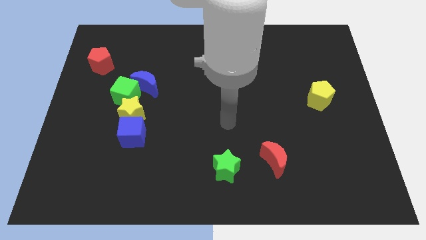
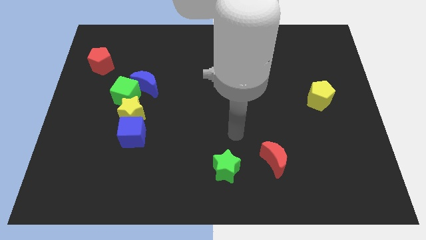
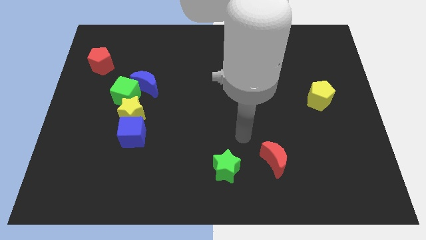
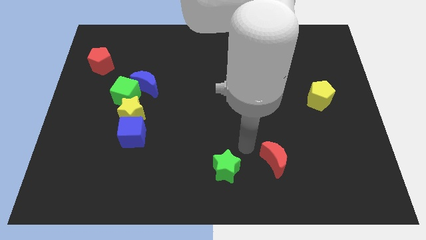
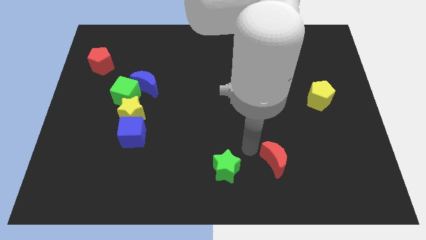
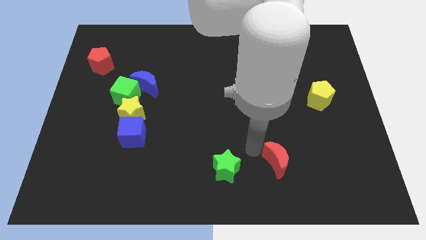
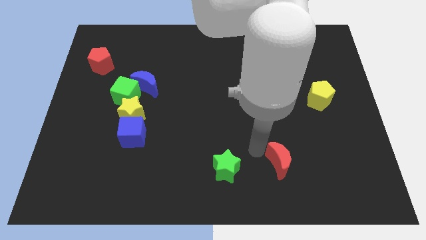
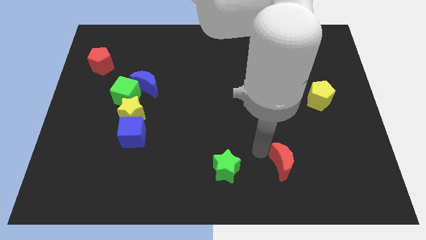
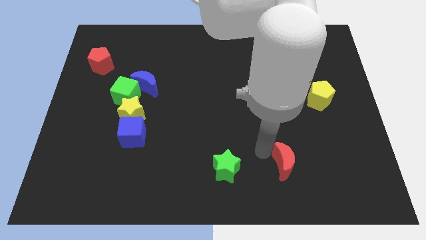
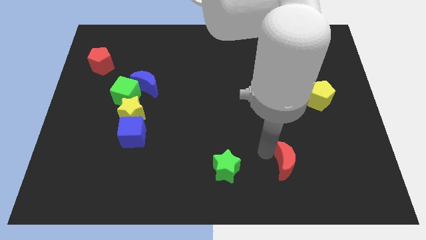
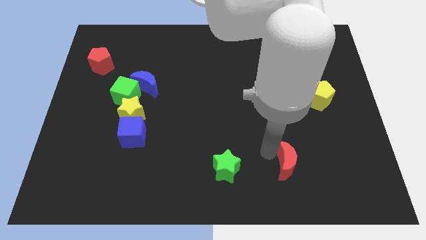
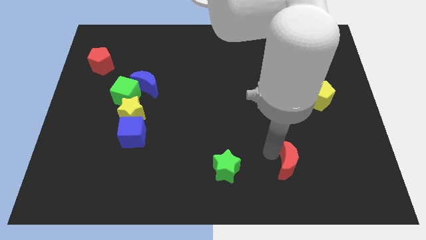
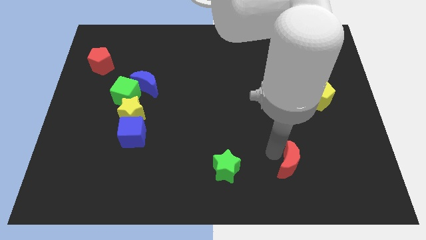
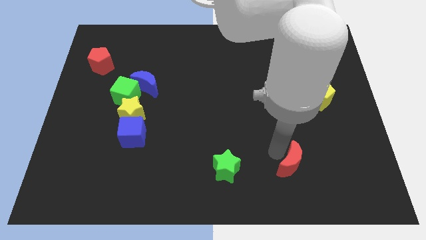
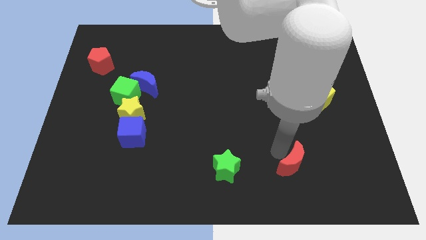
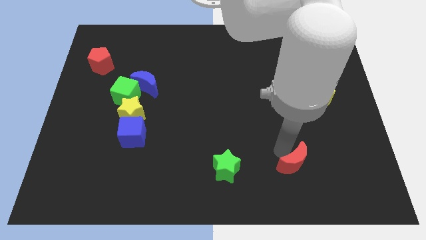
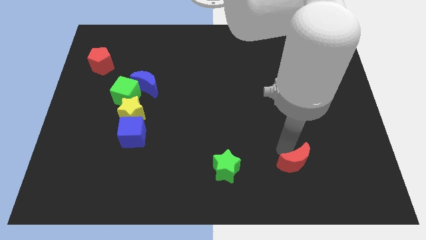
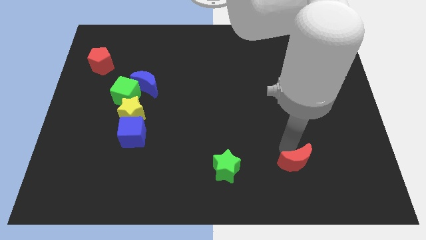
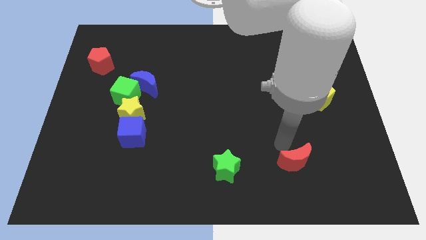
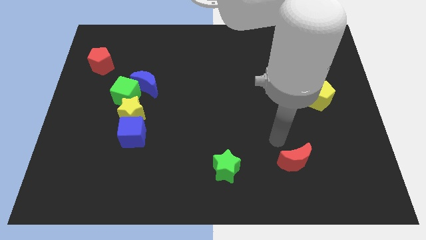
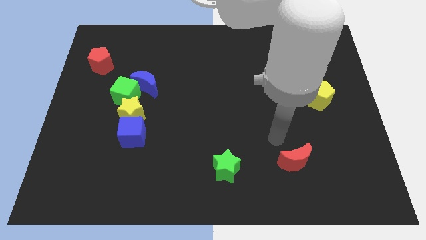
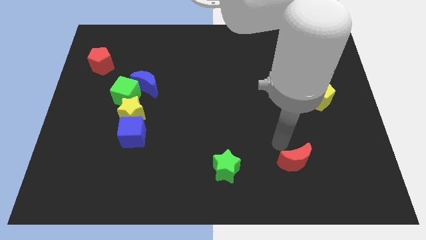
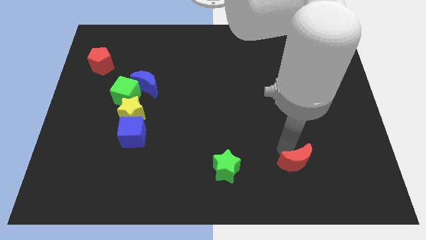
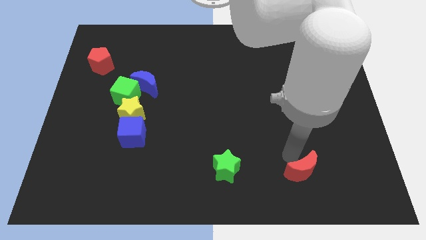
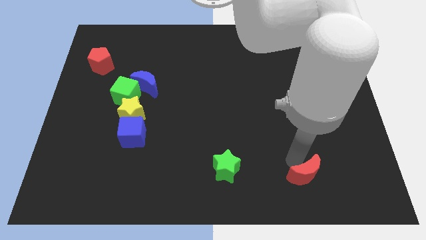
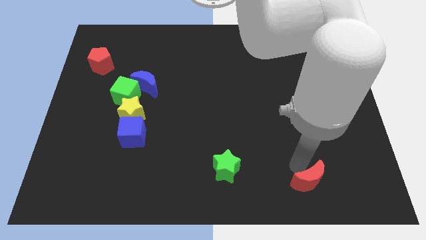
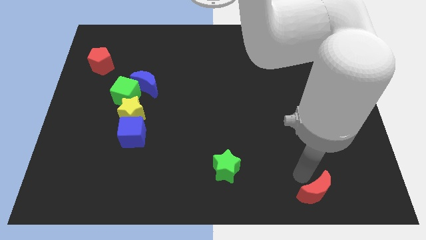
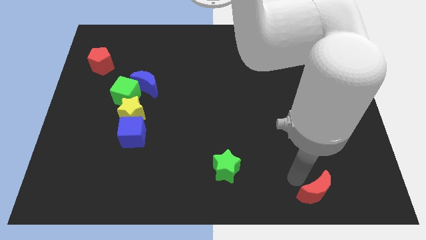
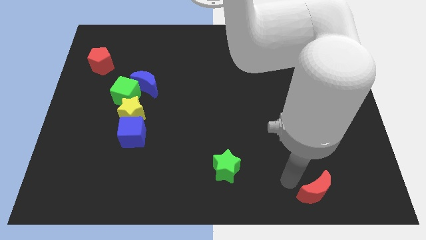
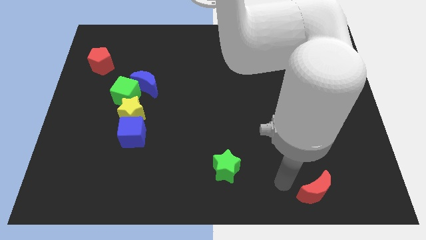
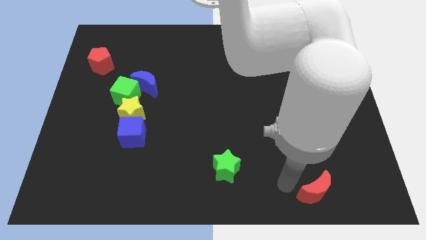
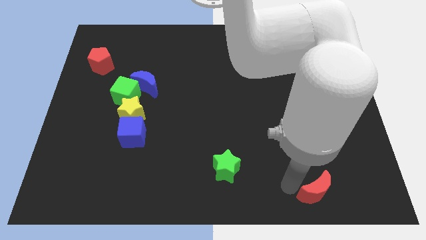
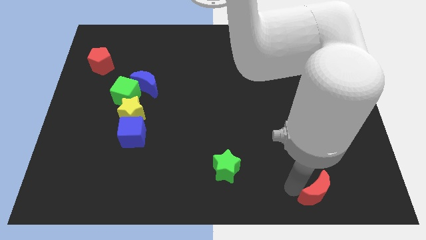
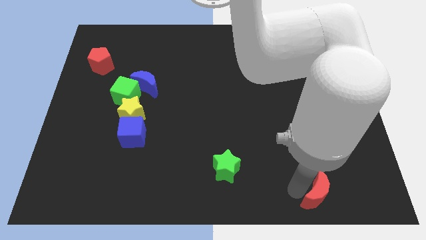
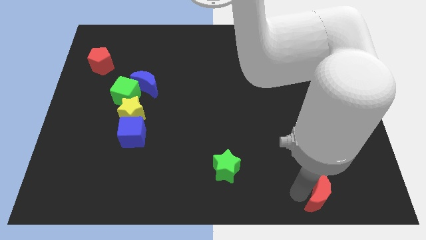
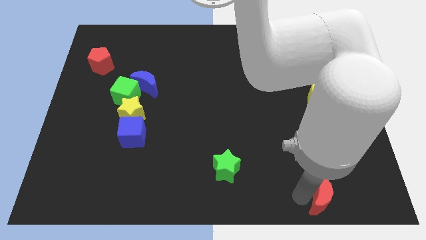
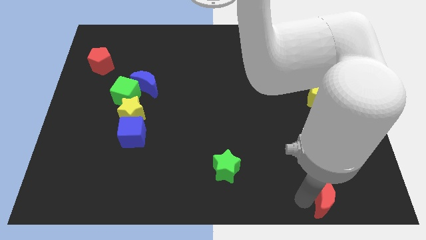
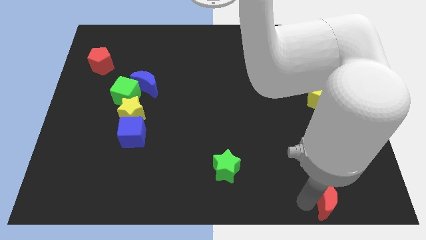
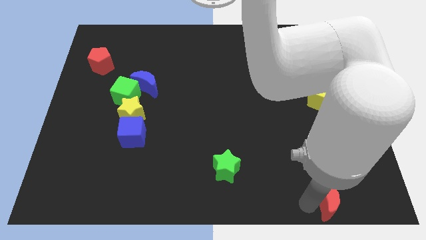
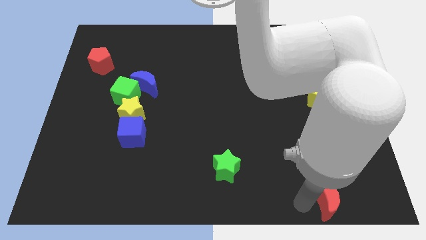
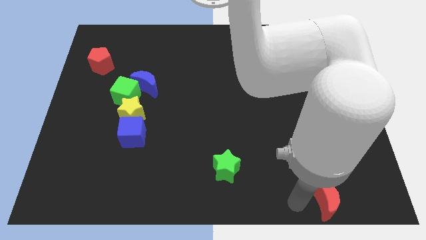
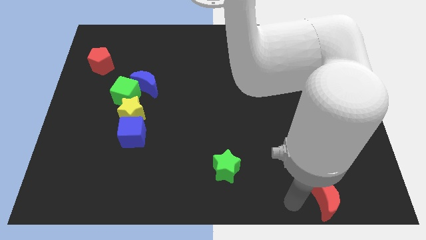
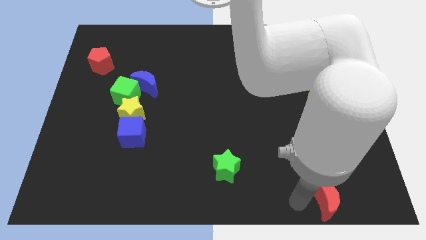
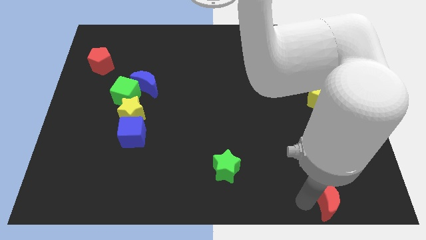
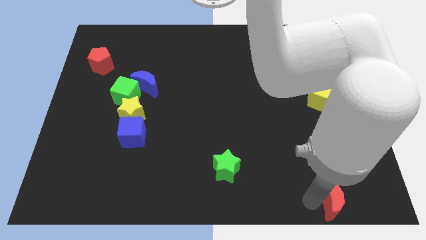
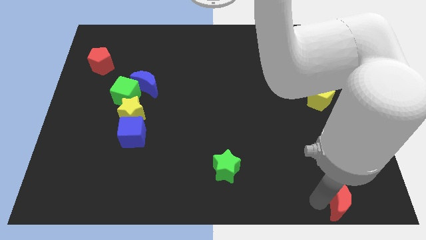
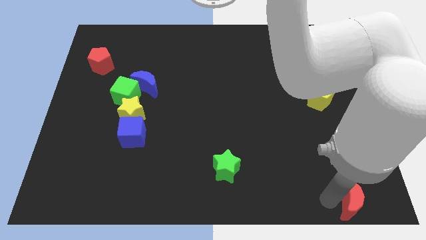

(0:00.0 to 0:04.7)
move the red moon to the bottom right corner

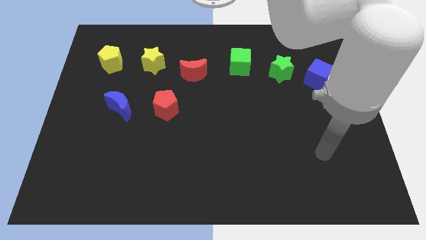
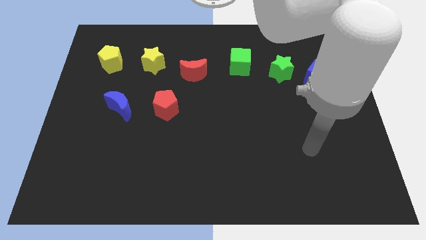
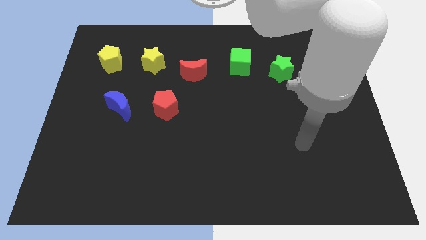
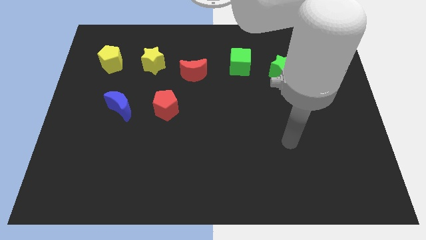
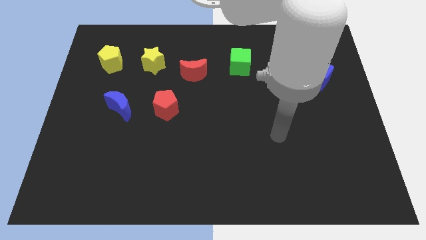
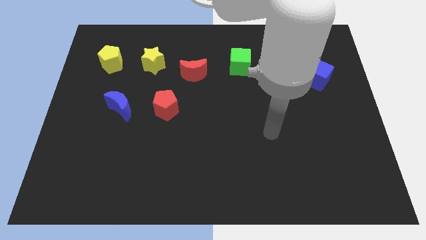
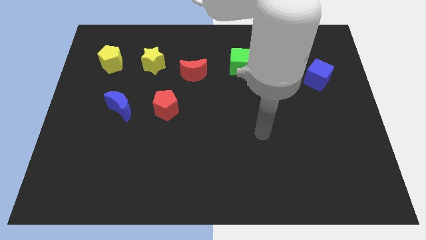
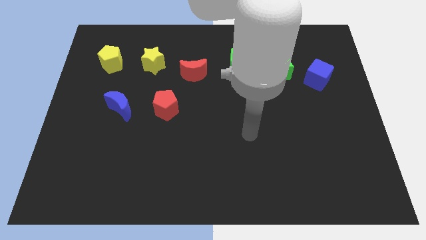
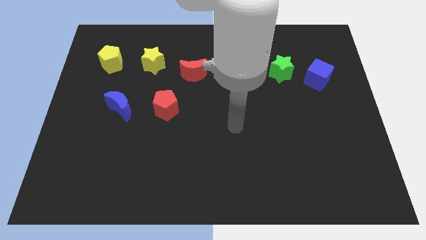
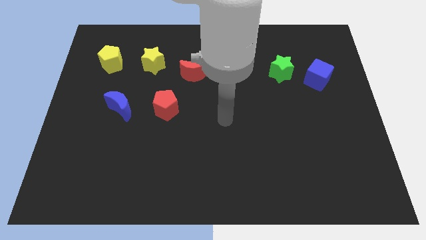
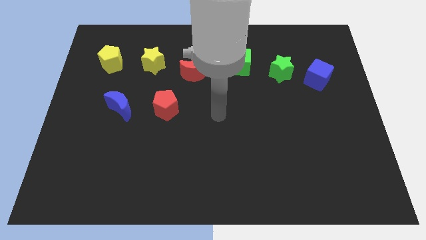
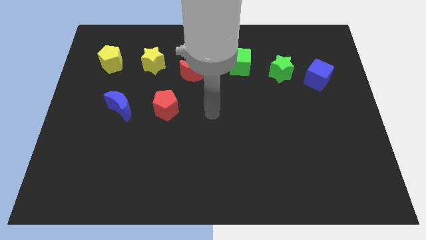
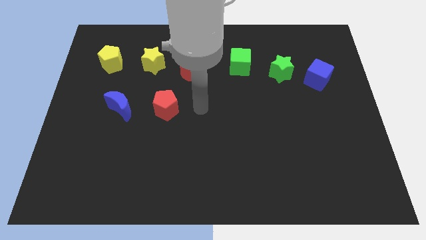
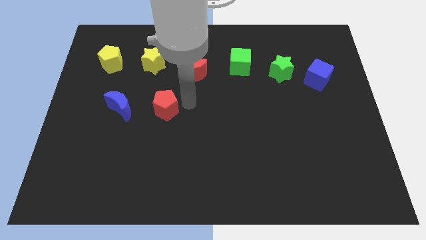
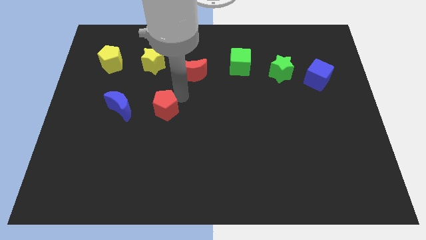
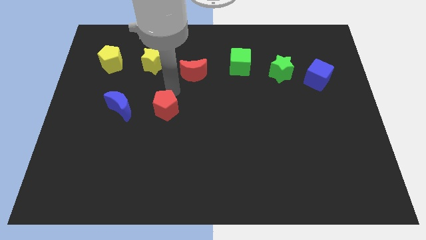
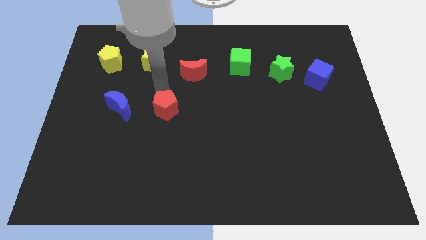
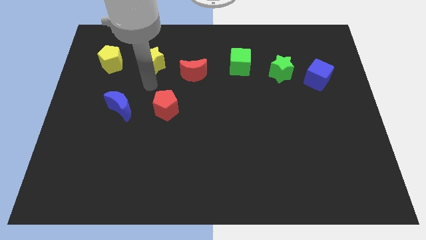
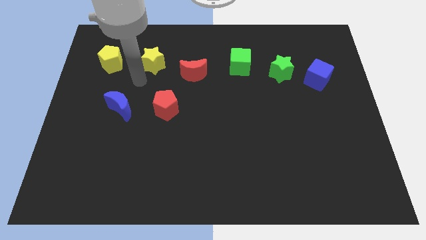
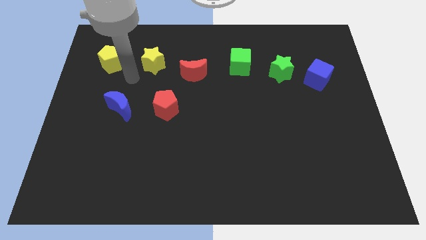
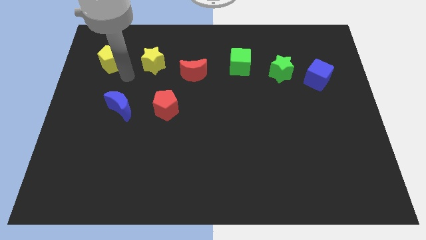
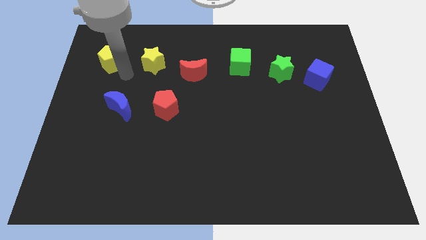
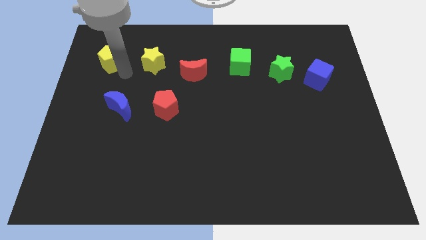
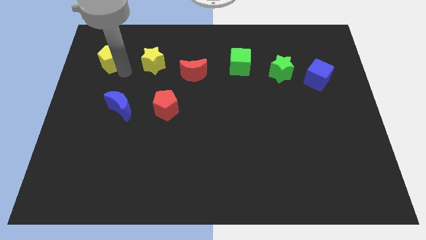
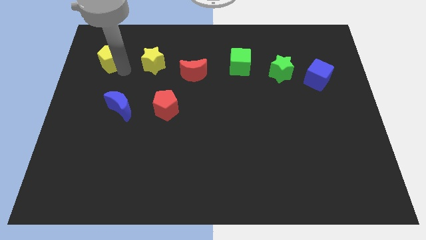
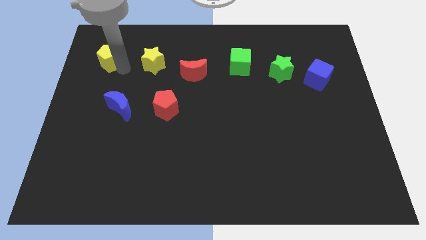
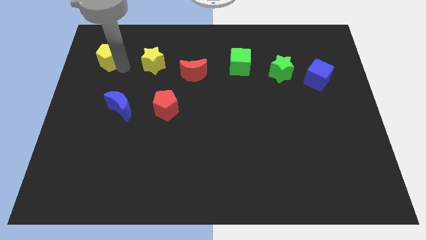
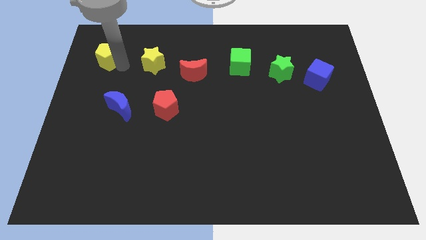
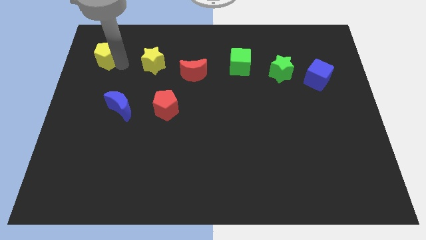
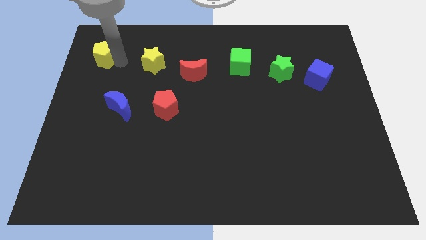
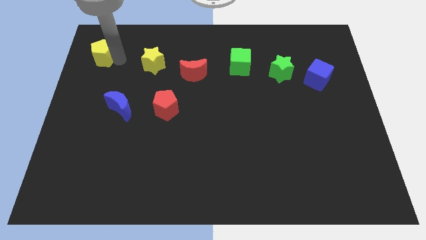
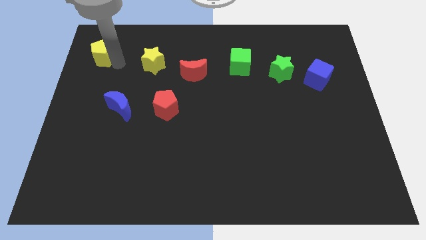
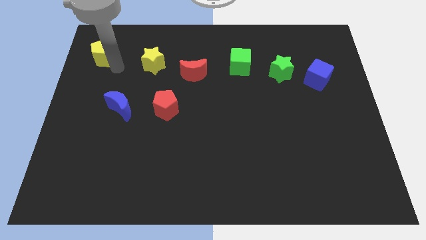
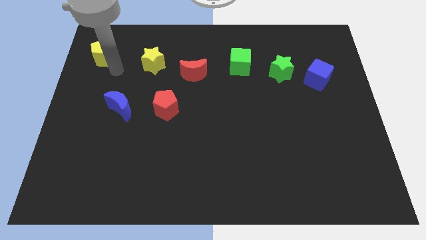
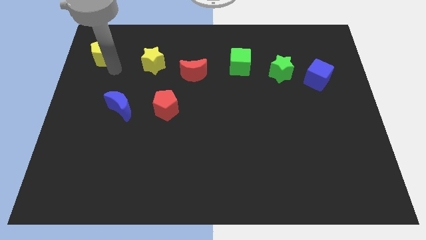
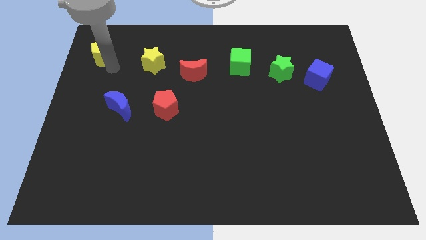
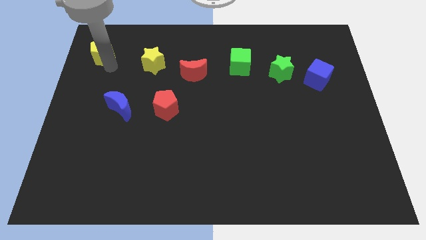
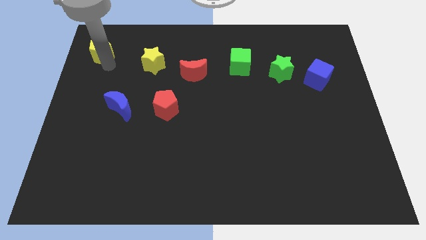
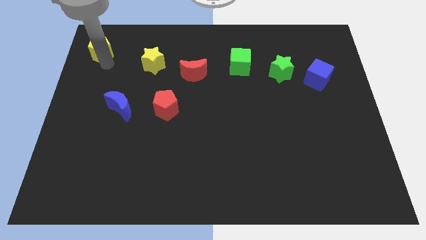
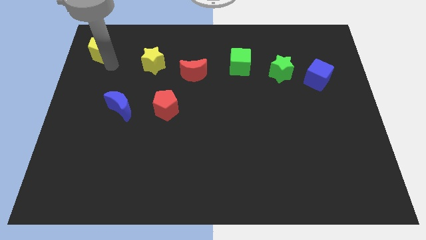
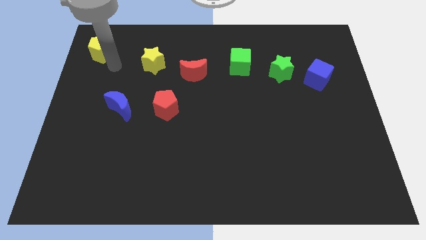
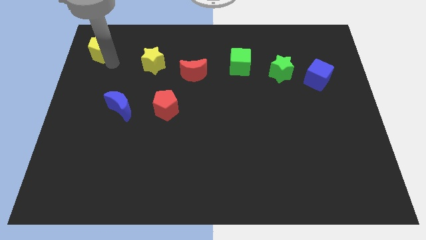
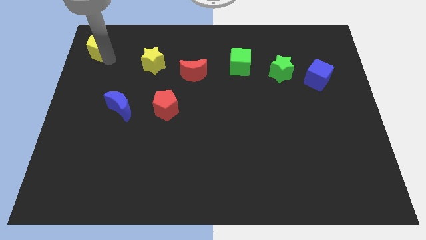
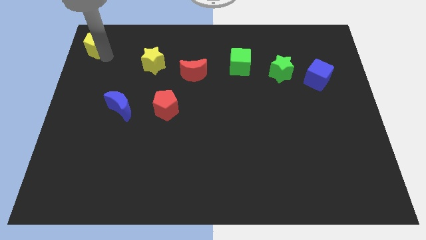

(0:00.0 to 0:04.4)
put the yellow pentagon to the top left
